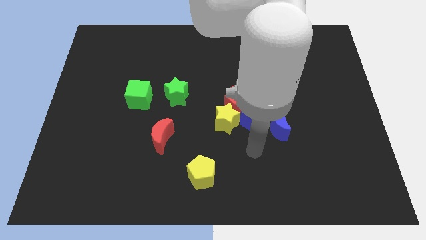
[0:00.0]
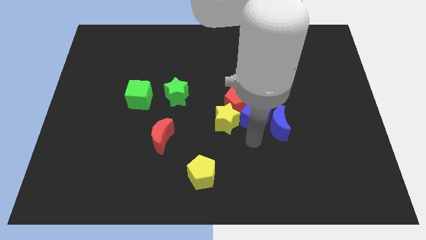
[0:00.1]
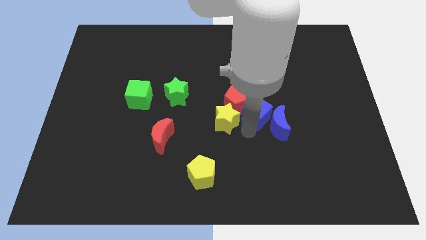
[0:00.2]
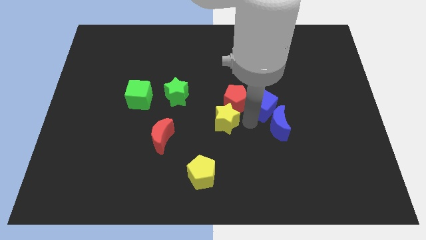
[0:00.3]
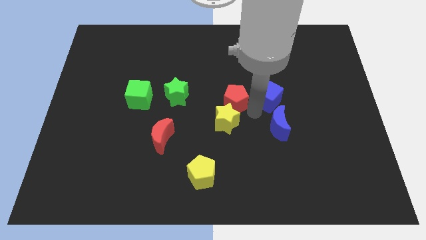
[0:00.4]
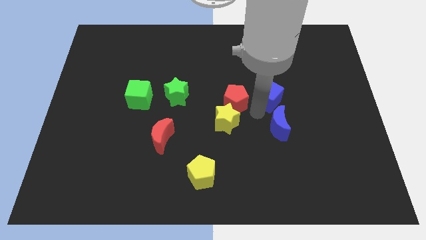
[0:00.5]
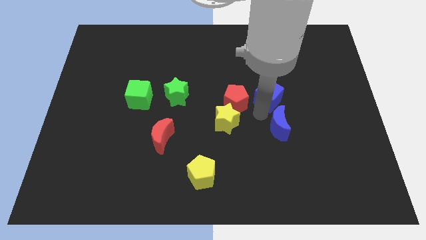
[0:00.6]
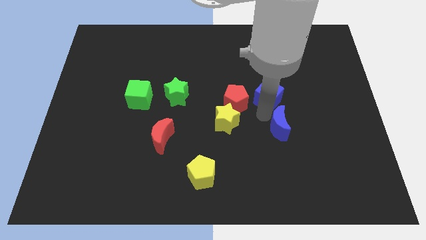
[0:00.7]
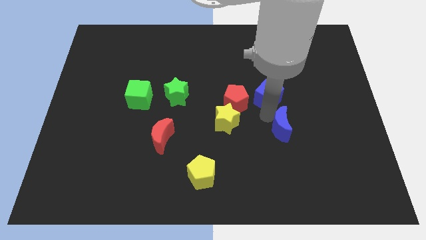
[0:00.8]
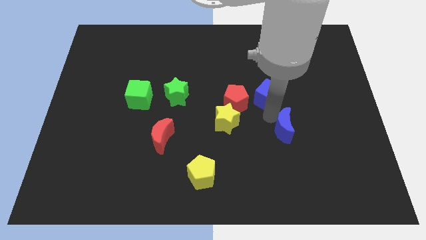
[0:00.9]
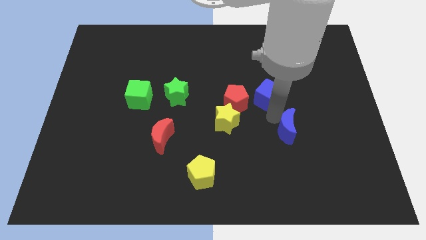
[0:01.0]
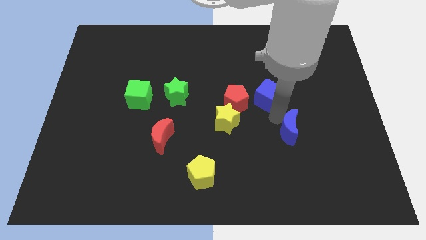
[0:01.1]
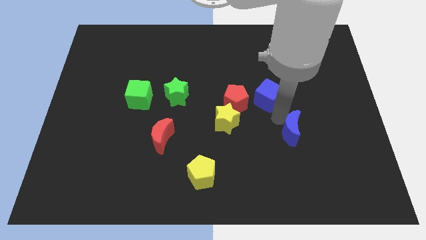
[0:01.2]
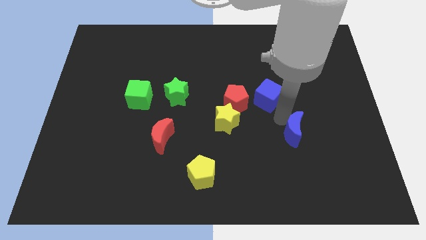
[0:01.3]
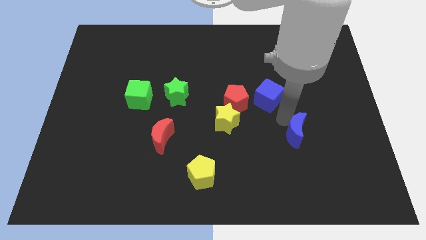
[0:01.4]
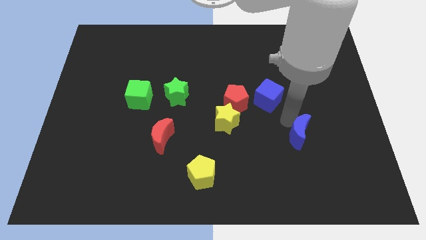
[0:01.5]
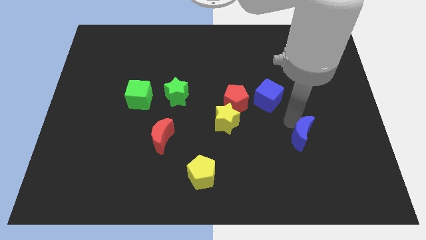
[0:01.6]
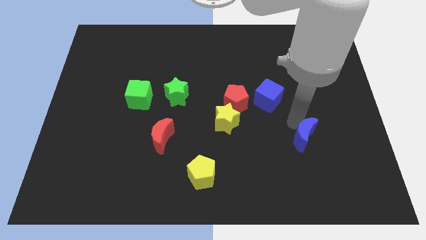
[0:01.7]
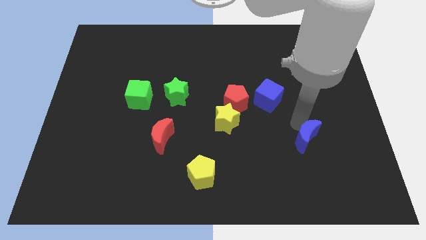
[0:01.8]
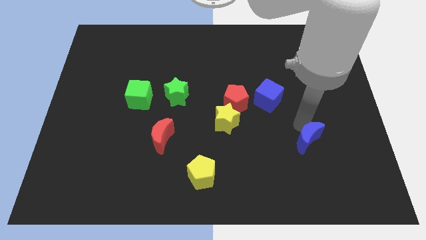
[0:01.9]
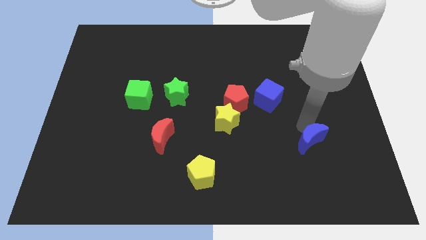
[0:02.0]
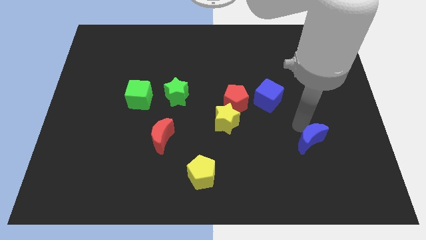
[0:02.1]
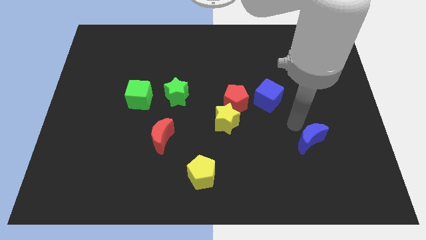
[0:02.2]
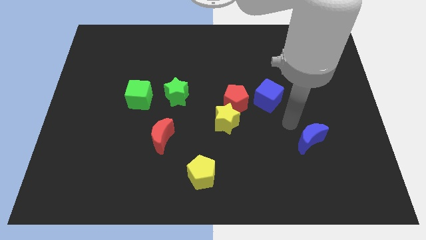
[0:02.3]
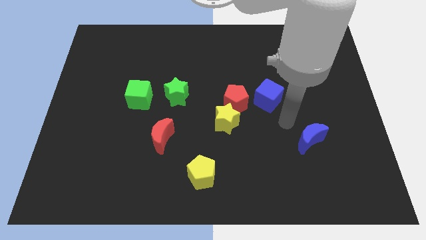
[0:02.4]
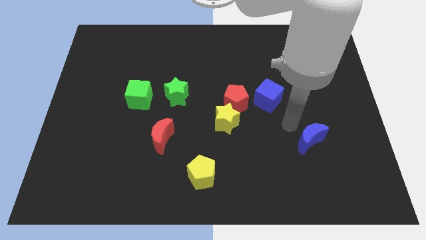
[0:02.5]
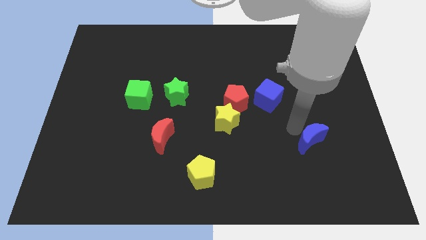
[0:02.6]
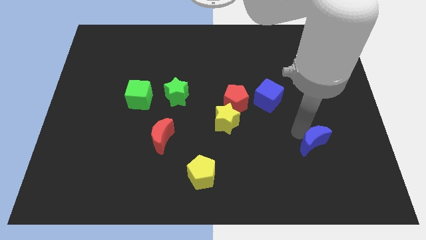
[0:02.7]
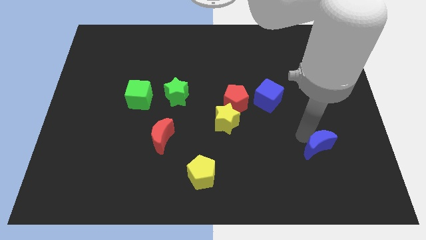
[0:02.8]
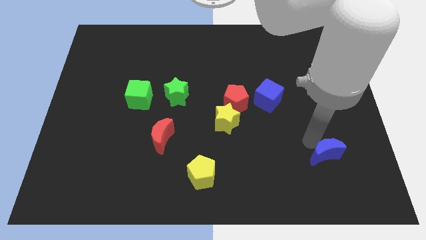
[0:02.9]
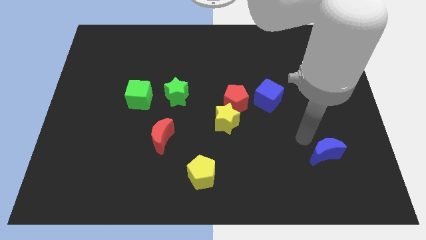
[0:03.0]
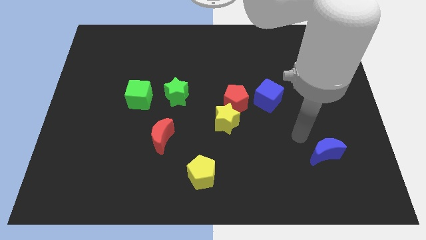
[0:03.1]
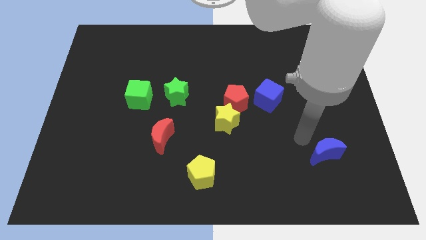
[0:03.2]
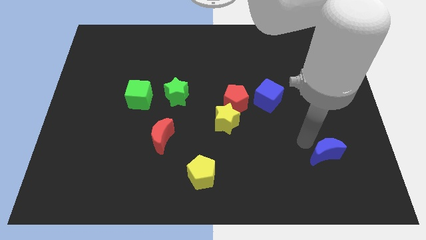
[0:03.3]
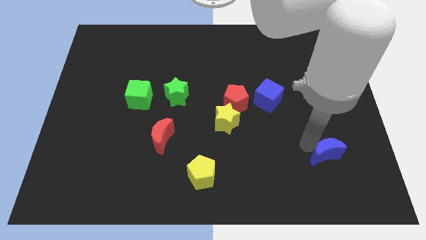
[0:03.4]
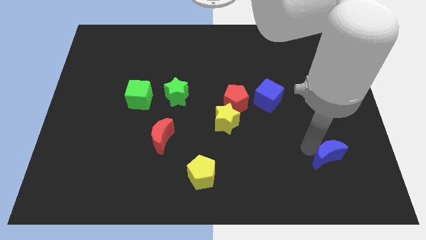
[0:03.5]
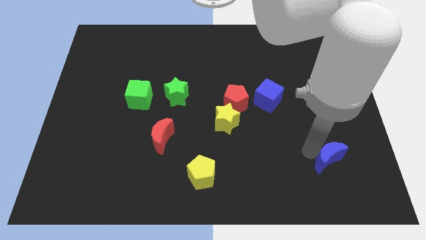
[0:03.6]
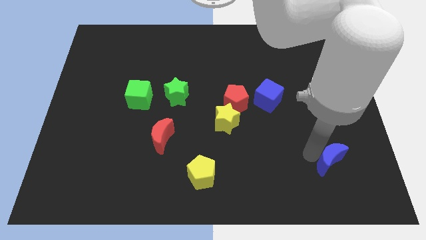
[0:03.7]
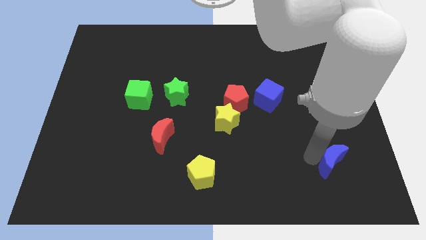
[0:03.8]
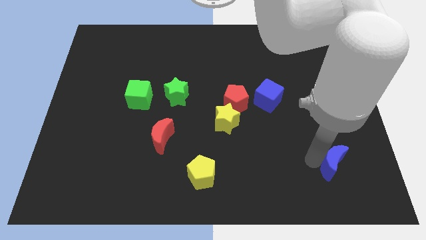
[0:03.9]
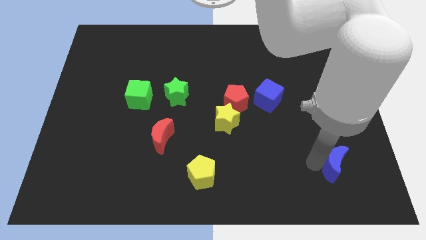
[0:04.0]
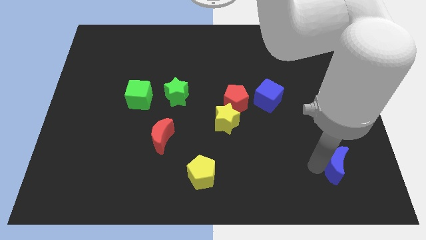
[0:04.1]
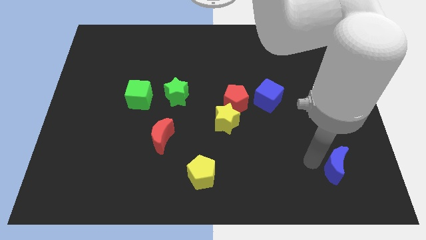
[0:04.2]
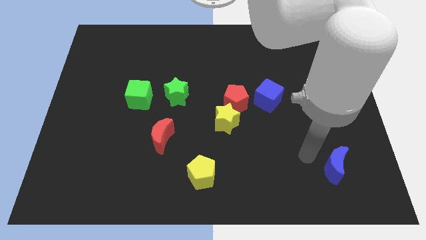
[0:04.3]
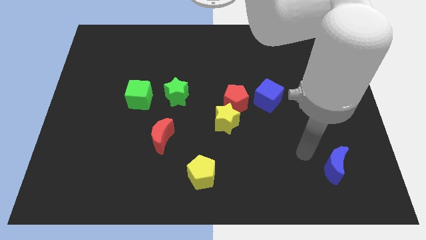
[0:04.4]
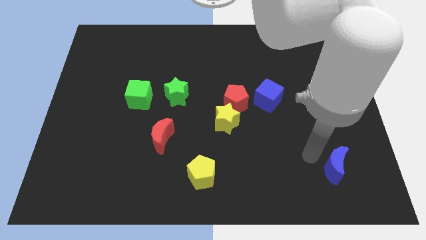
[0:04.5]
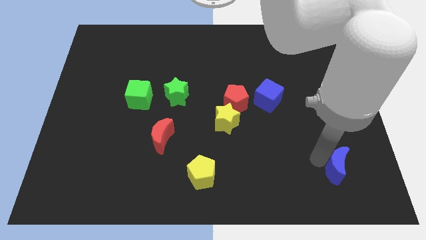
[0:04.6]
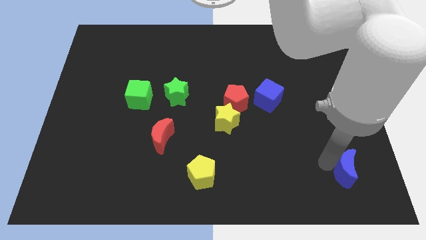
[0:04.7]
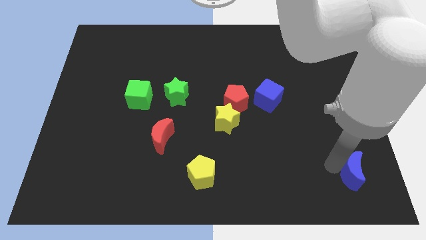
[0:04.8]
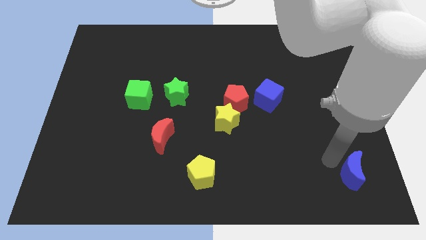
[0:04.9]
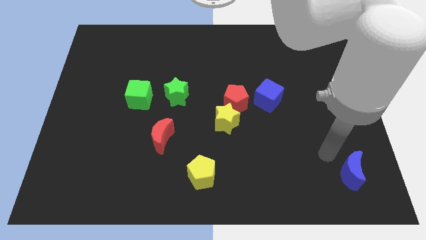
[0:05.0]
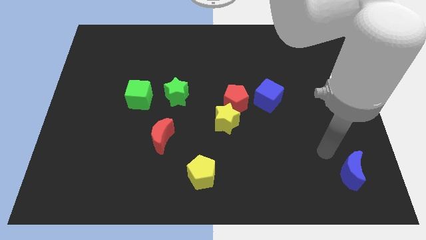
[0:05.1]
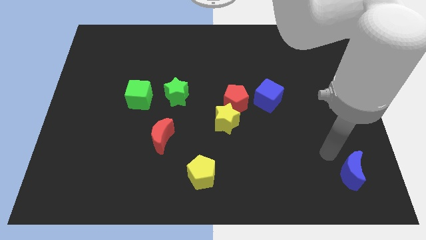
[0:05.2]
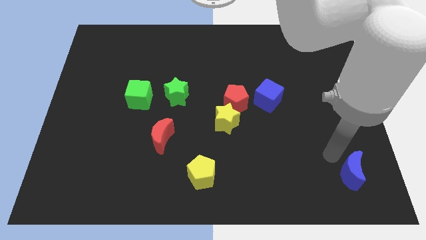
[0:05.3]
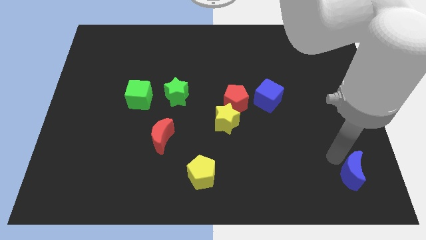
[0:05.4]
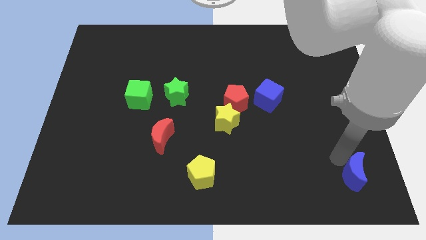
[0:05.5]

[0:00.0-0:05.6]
slide the blue moon to the bottom right corner

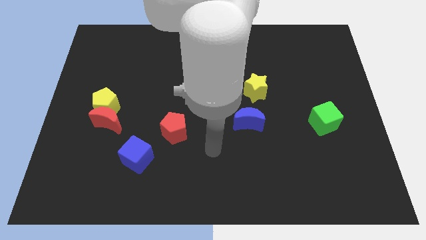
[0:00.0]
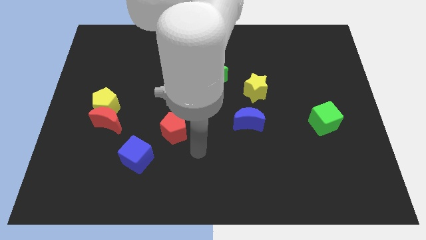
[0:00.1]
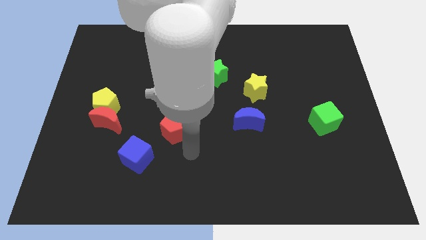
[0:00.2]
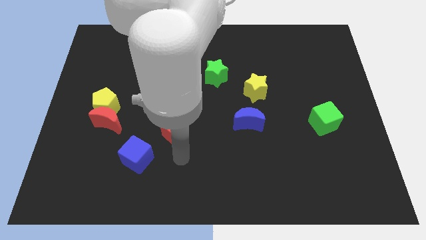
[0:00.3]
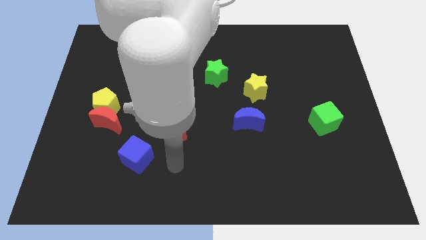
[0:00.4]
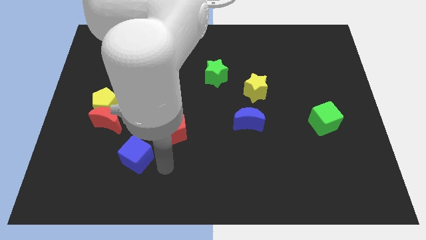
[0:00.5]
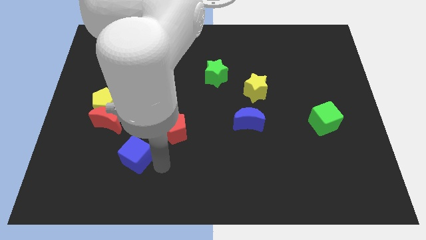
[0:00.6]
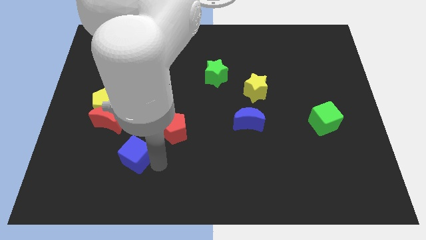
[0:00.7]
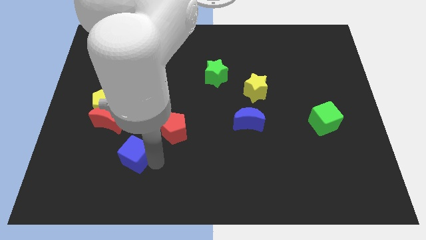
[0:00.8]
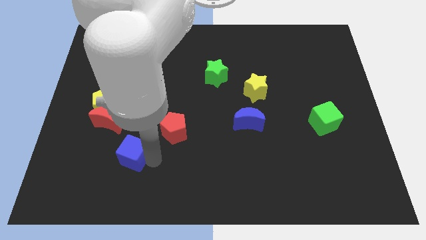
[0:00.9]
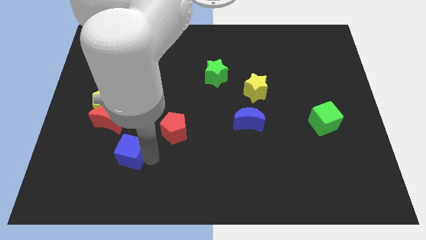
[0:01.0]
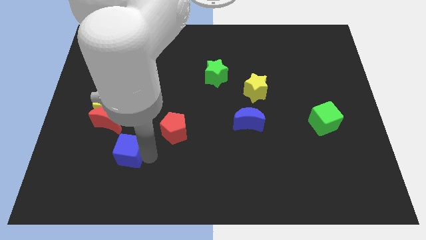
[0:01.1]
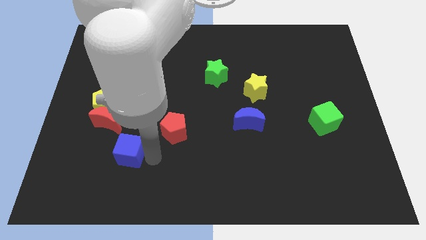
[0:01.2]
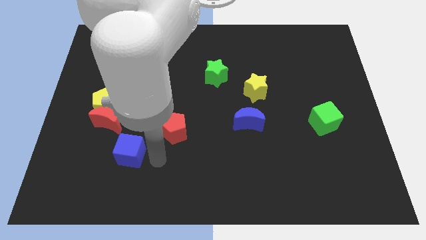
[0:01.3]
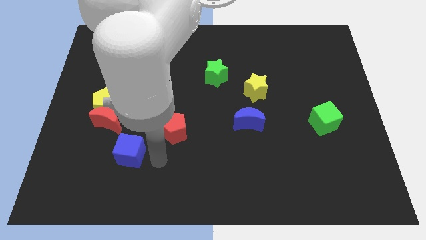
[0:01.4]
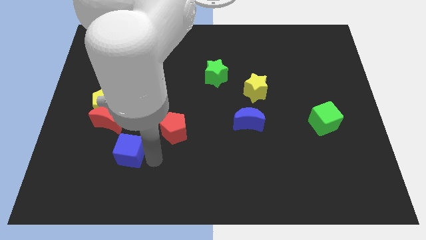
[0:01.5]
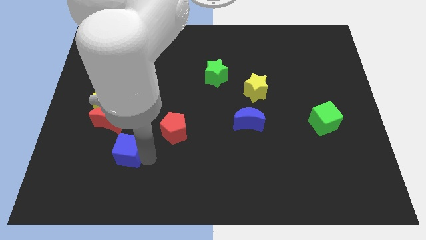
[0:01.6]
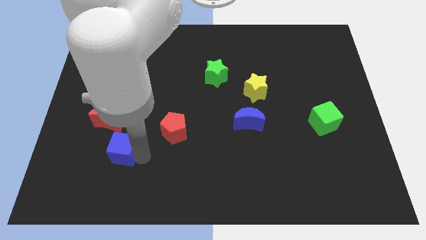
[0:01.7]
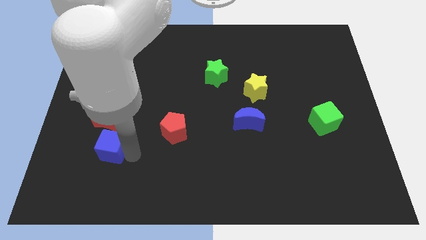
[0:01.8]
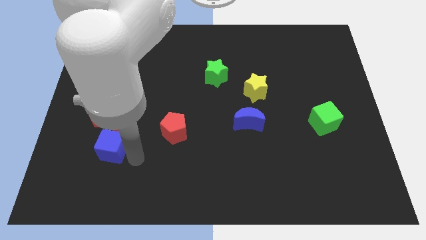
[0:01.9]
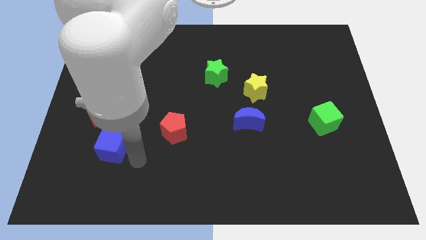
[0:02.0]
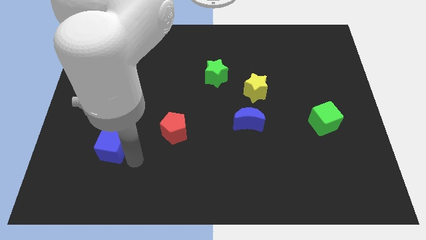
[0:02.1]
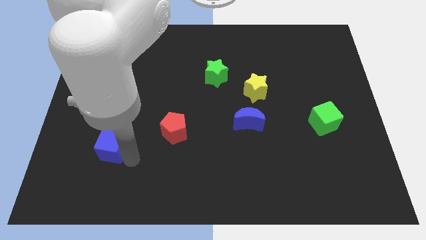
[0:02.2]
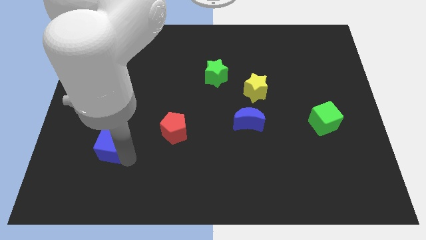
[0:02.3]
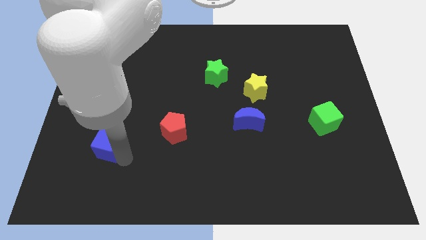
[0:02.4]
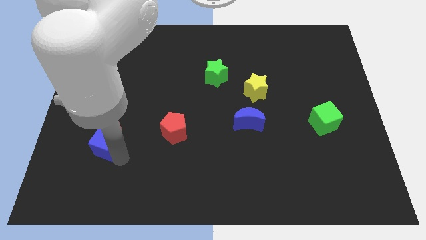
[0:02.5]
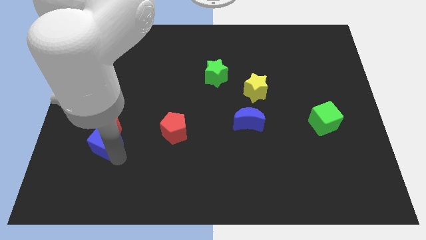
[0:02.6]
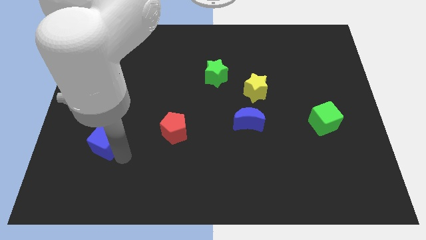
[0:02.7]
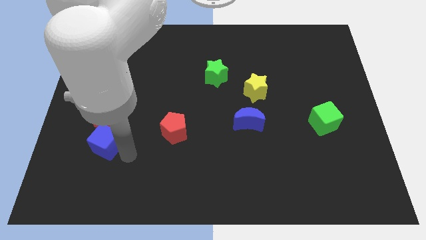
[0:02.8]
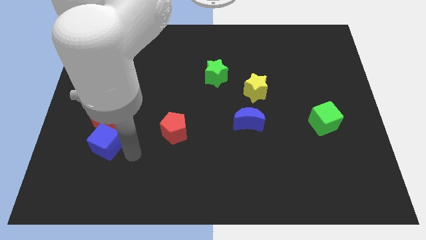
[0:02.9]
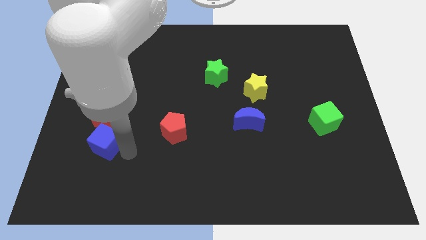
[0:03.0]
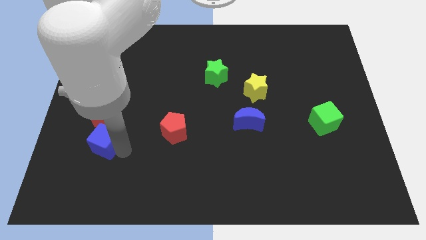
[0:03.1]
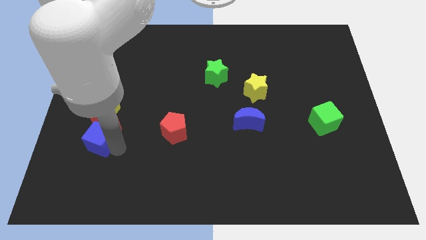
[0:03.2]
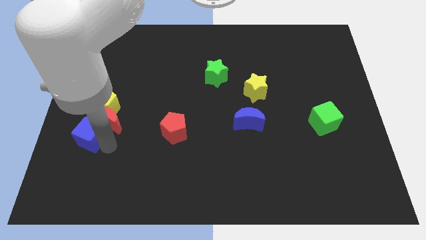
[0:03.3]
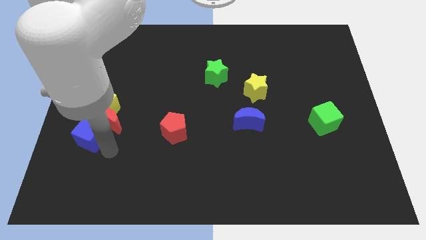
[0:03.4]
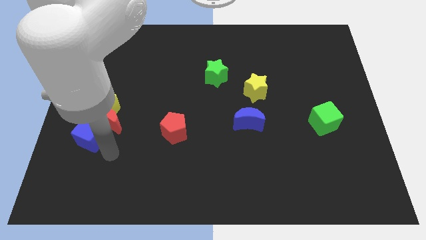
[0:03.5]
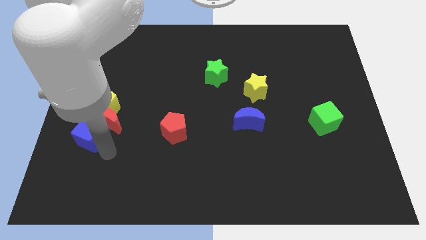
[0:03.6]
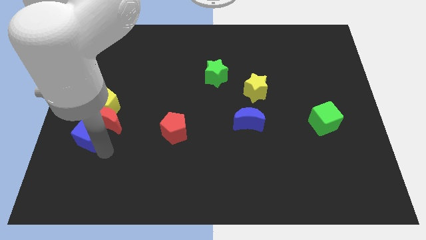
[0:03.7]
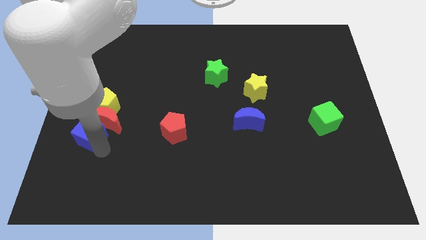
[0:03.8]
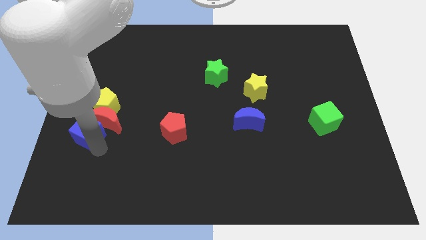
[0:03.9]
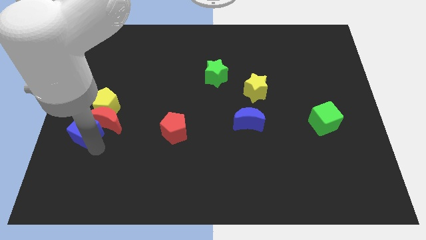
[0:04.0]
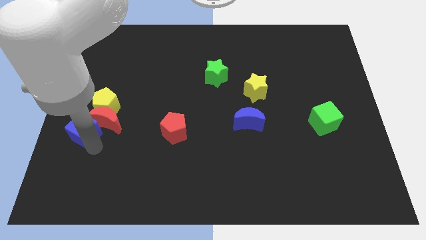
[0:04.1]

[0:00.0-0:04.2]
push the blue cube to the left side of the board
